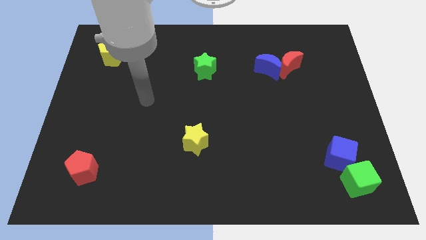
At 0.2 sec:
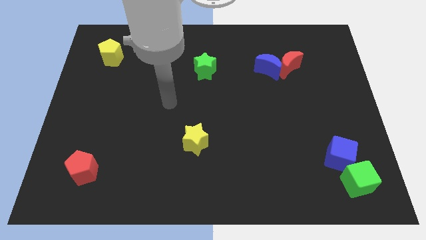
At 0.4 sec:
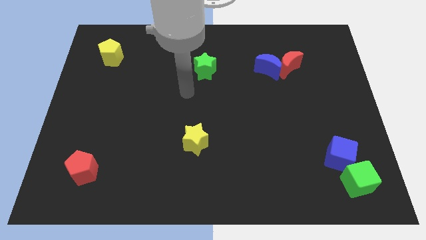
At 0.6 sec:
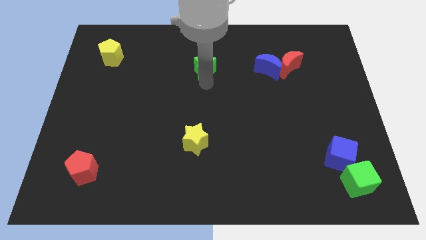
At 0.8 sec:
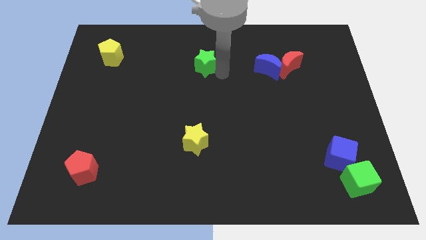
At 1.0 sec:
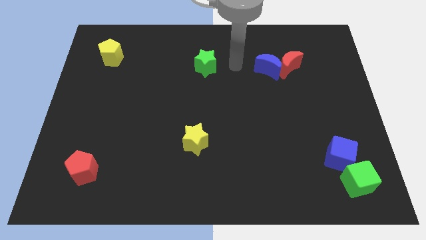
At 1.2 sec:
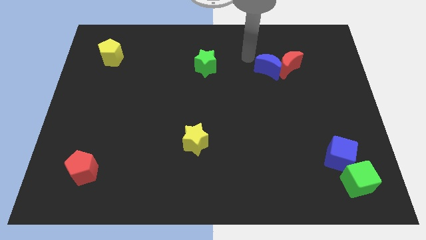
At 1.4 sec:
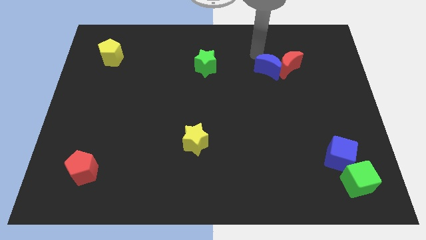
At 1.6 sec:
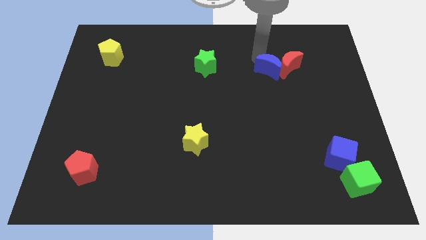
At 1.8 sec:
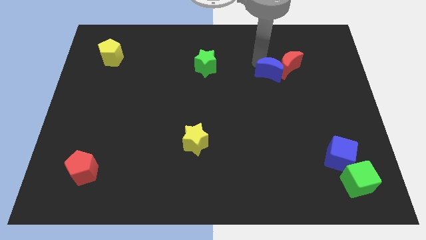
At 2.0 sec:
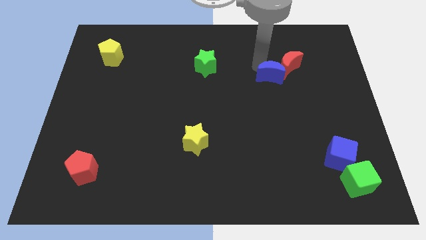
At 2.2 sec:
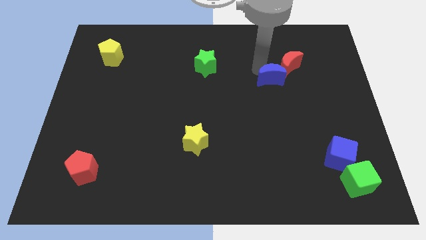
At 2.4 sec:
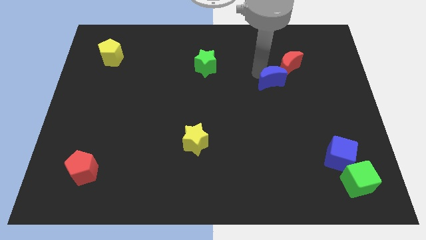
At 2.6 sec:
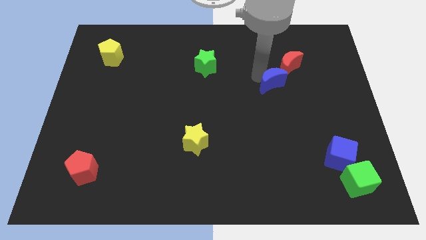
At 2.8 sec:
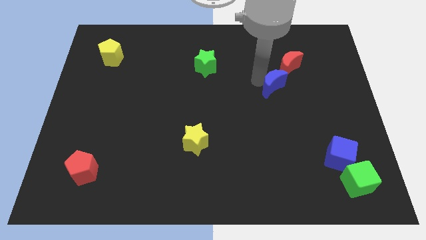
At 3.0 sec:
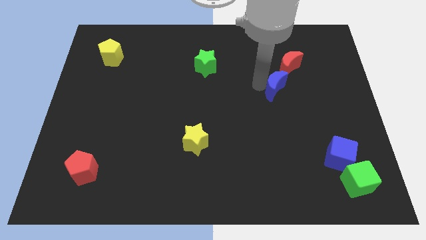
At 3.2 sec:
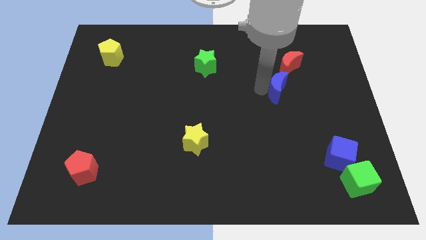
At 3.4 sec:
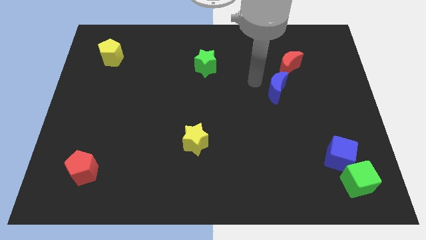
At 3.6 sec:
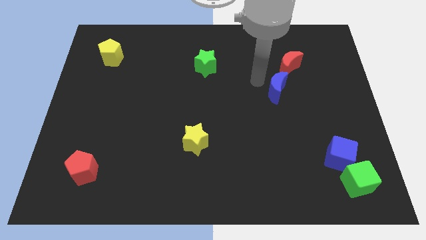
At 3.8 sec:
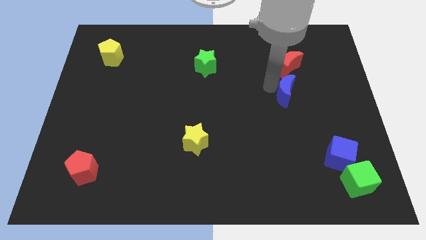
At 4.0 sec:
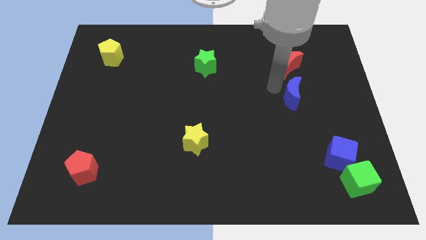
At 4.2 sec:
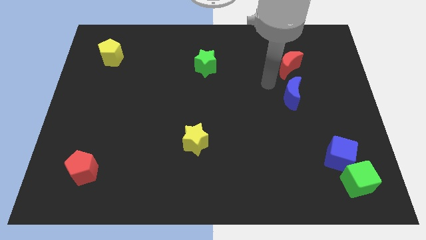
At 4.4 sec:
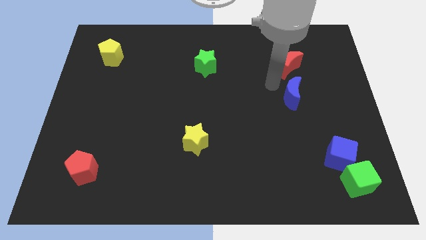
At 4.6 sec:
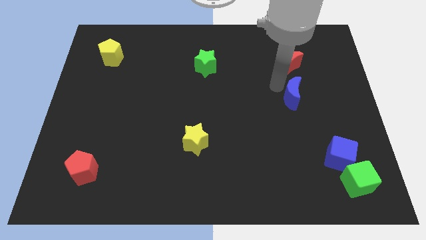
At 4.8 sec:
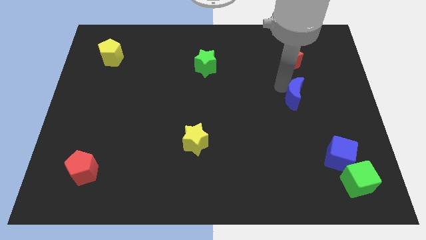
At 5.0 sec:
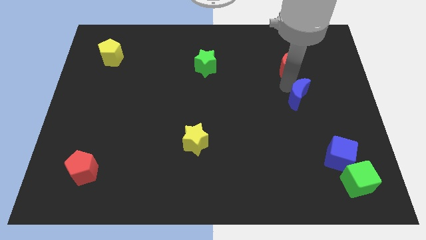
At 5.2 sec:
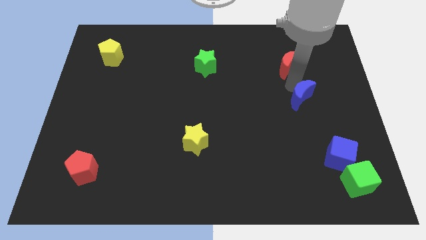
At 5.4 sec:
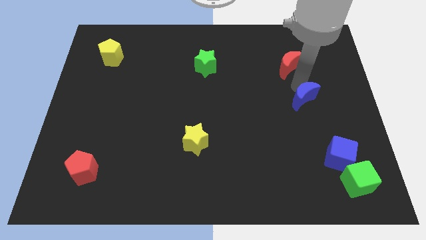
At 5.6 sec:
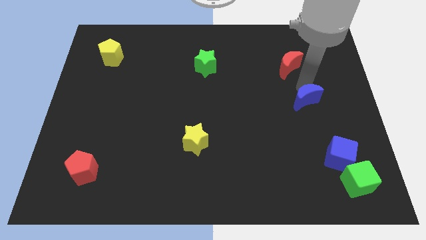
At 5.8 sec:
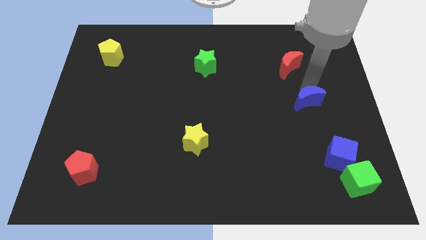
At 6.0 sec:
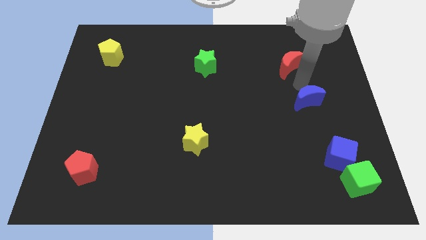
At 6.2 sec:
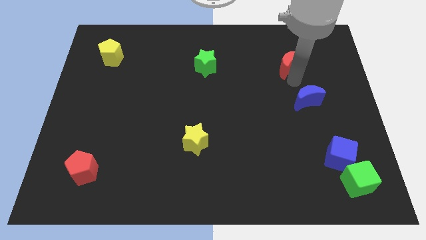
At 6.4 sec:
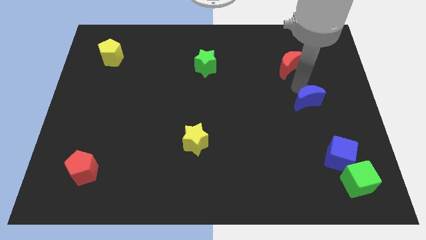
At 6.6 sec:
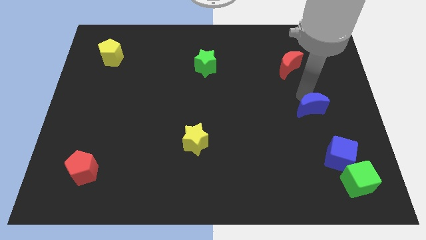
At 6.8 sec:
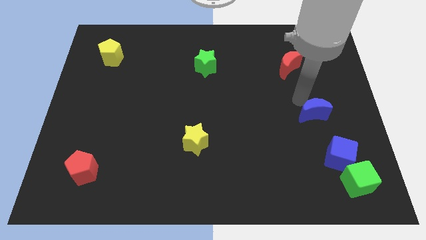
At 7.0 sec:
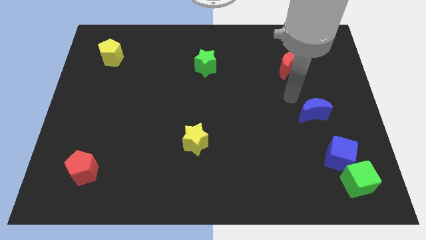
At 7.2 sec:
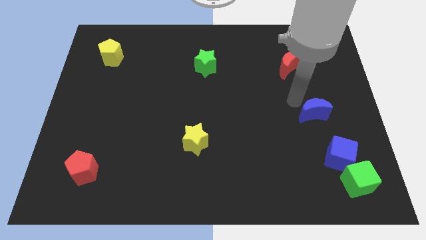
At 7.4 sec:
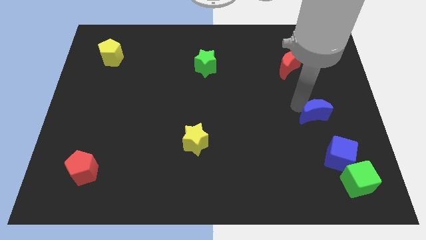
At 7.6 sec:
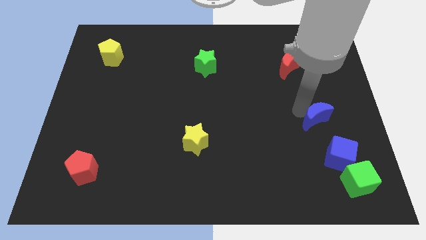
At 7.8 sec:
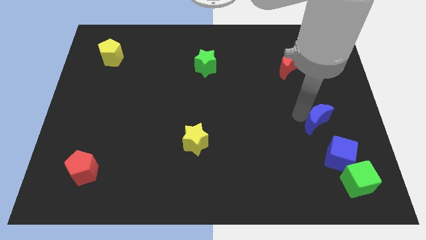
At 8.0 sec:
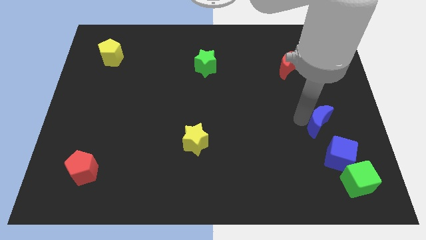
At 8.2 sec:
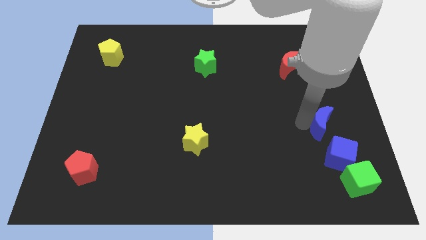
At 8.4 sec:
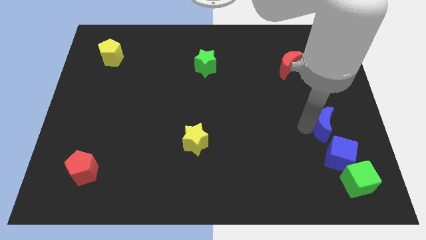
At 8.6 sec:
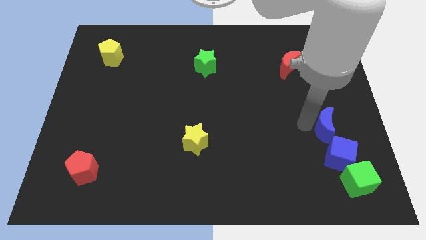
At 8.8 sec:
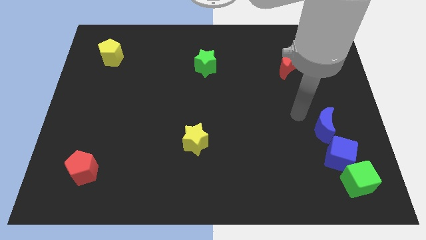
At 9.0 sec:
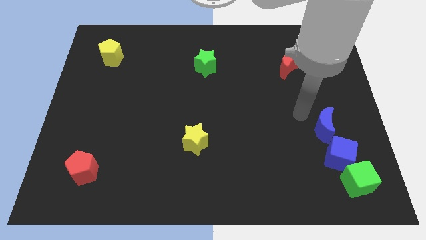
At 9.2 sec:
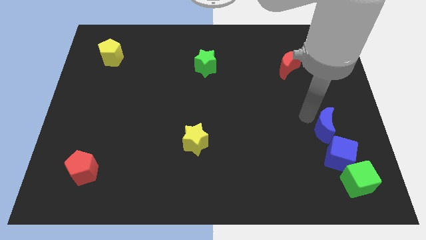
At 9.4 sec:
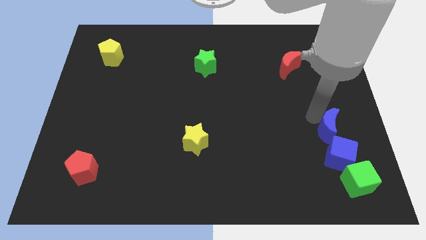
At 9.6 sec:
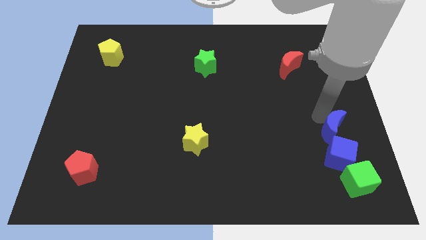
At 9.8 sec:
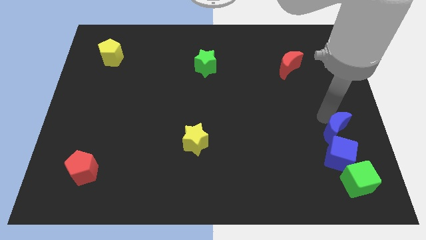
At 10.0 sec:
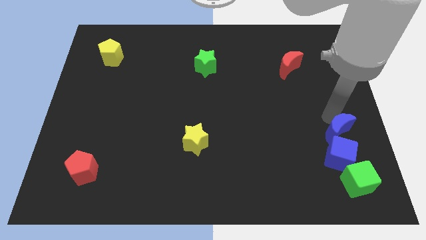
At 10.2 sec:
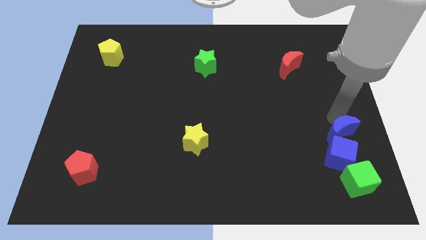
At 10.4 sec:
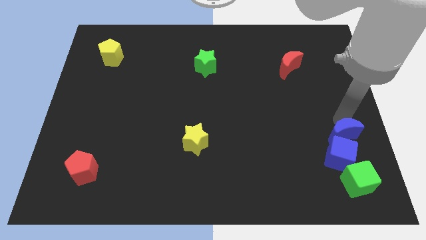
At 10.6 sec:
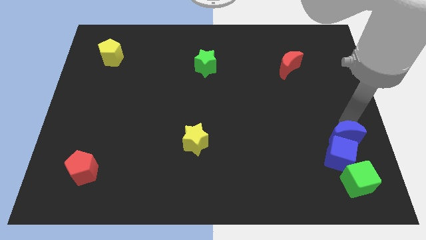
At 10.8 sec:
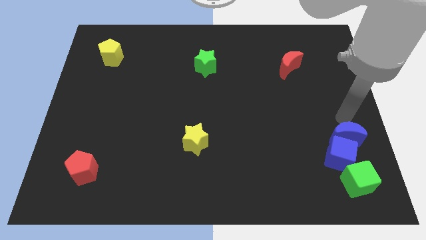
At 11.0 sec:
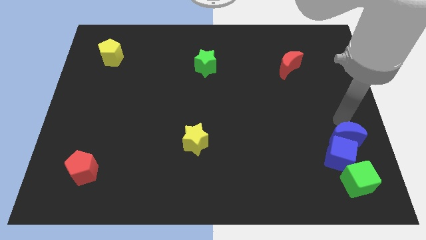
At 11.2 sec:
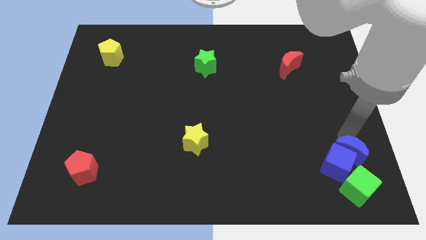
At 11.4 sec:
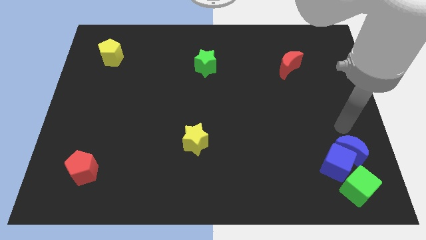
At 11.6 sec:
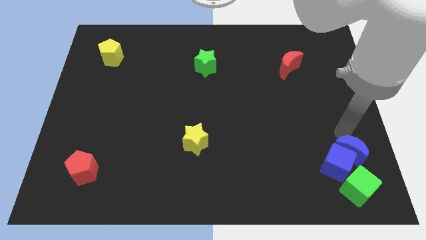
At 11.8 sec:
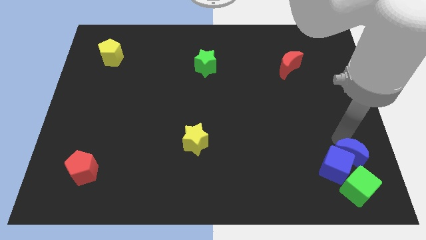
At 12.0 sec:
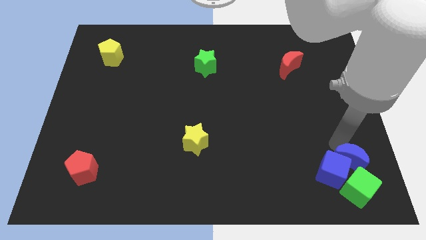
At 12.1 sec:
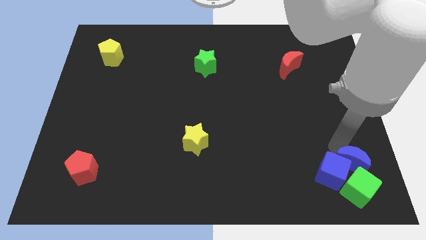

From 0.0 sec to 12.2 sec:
put the blue moon towards the green cube
